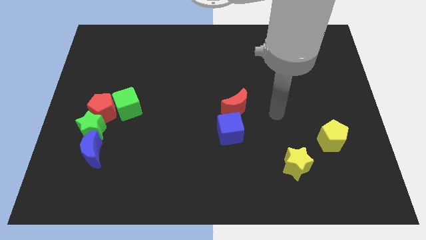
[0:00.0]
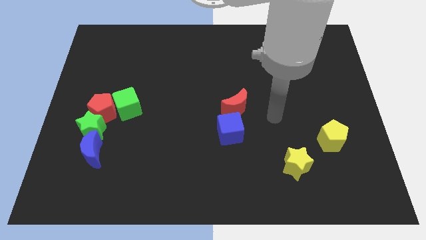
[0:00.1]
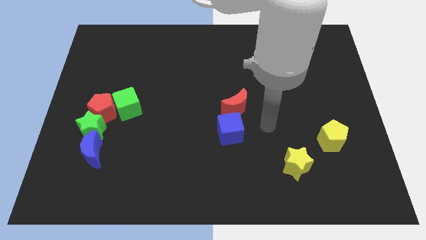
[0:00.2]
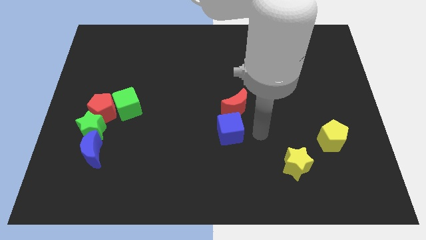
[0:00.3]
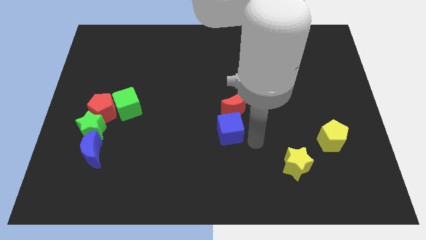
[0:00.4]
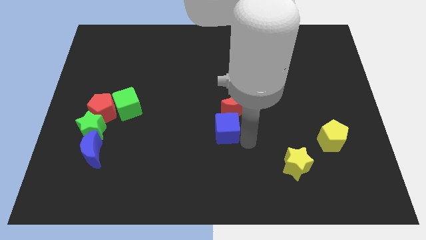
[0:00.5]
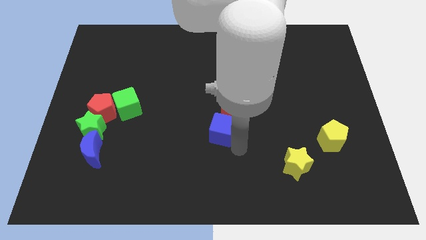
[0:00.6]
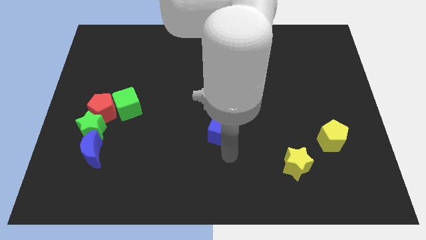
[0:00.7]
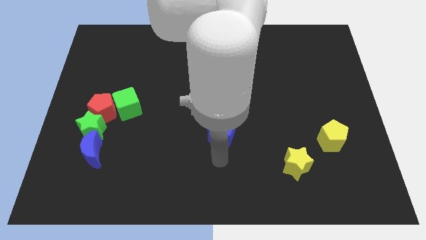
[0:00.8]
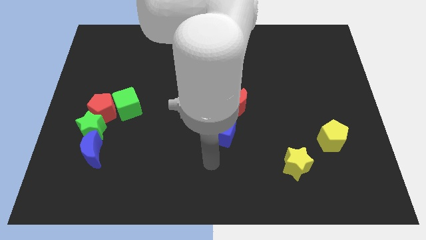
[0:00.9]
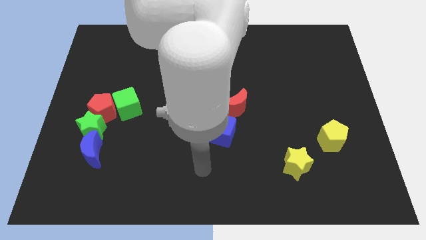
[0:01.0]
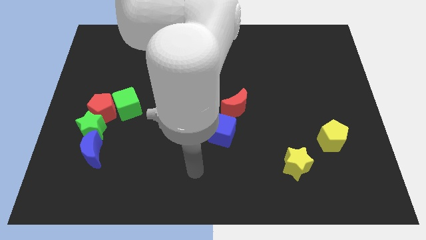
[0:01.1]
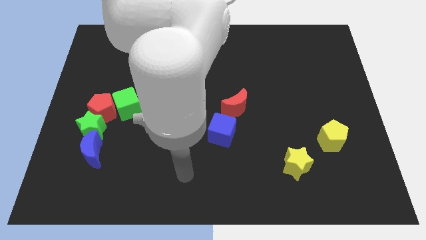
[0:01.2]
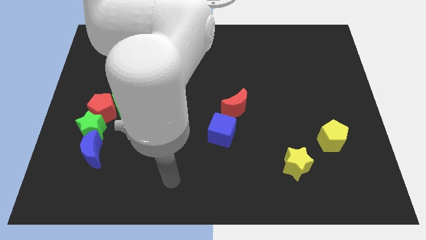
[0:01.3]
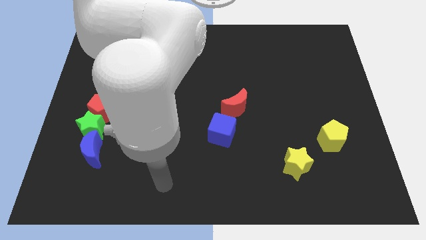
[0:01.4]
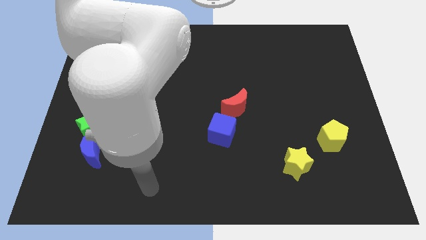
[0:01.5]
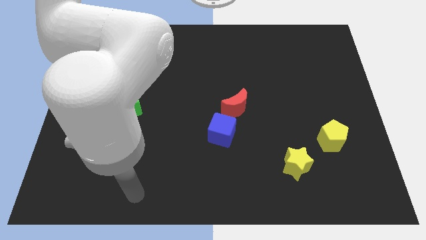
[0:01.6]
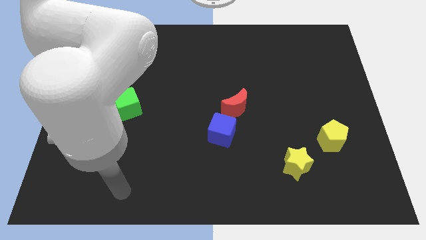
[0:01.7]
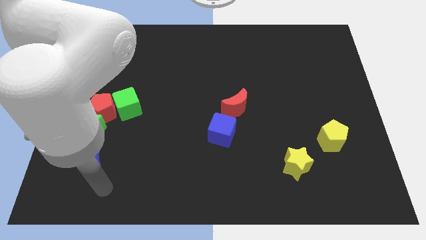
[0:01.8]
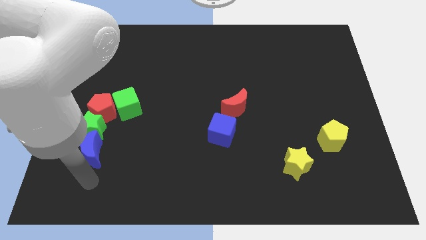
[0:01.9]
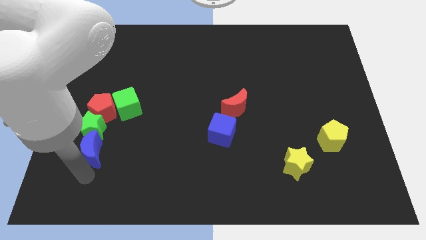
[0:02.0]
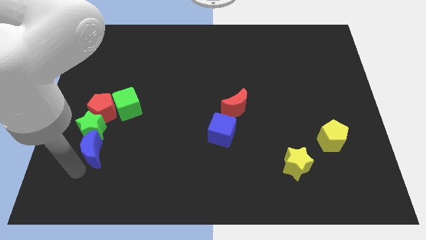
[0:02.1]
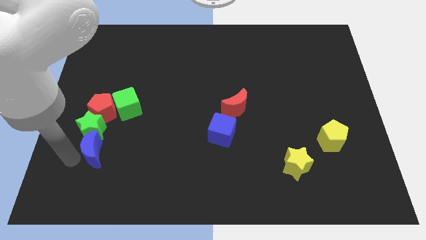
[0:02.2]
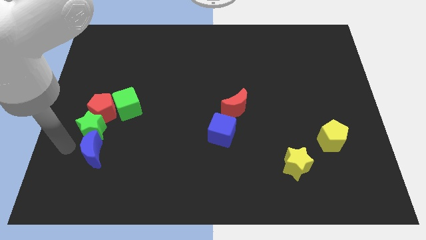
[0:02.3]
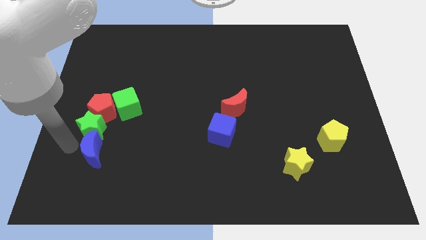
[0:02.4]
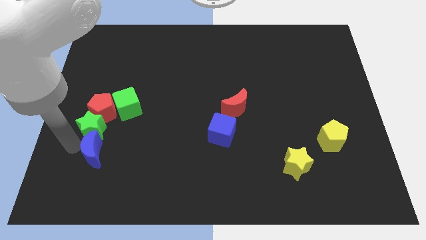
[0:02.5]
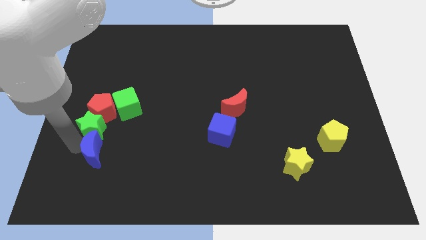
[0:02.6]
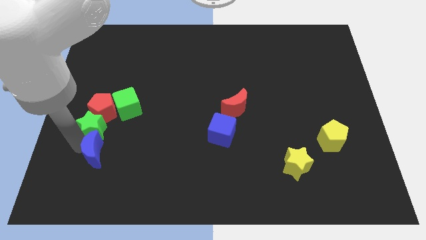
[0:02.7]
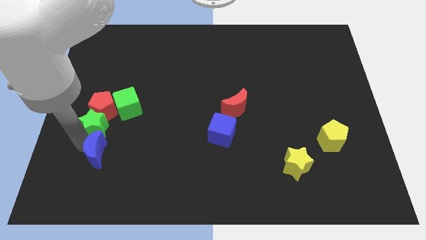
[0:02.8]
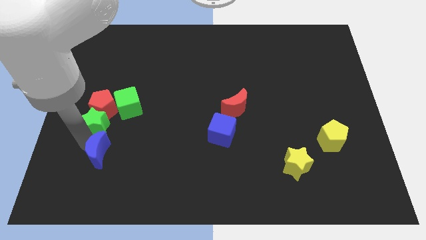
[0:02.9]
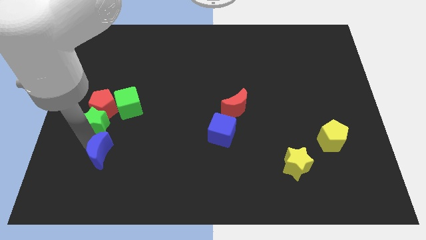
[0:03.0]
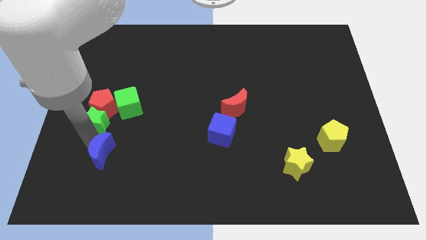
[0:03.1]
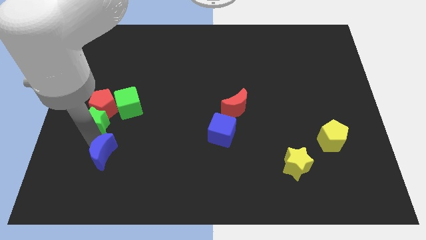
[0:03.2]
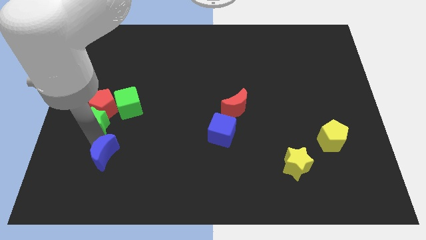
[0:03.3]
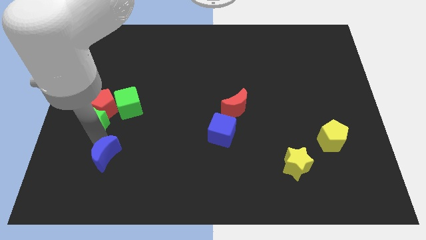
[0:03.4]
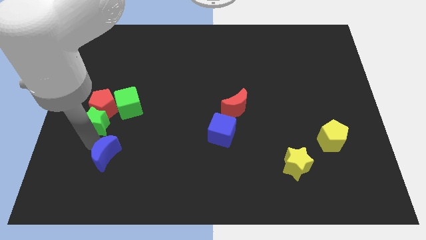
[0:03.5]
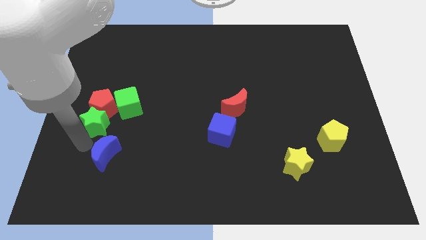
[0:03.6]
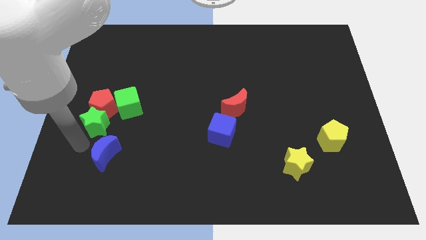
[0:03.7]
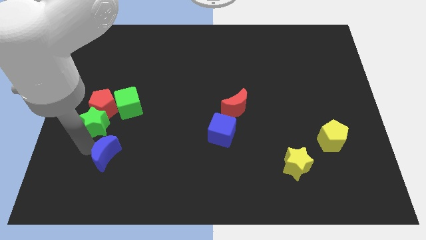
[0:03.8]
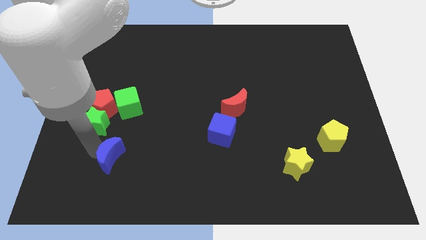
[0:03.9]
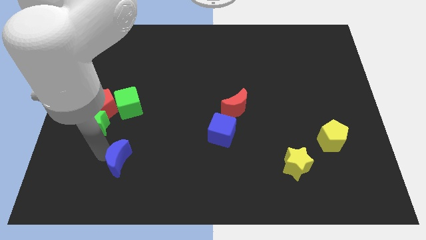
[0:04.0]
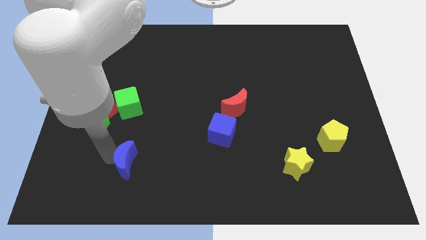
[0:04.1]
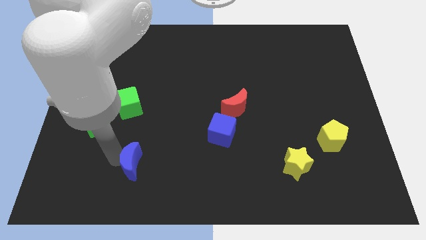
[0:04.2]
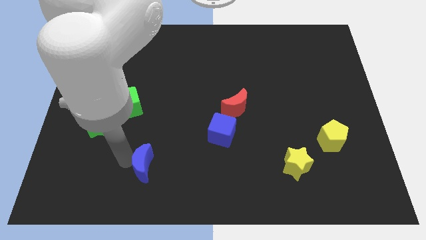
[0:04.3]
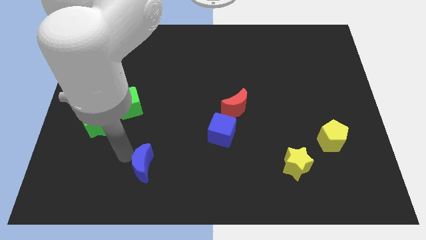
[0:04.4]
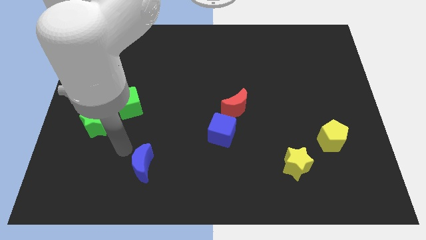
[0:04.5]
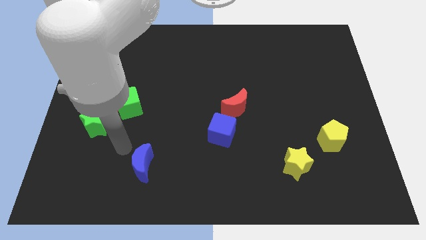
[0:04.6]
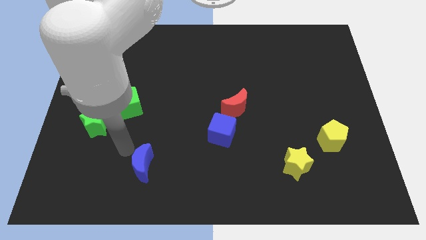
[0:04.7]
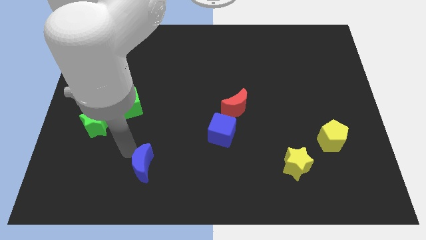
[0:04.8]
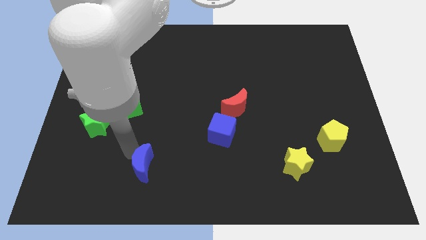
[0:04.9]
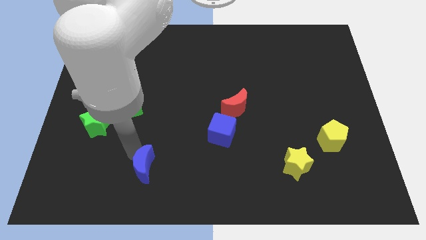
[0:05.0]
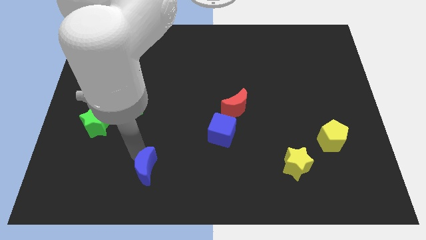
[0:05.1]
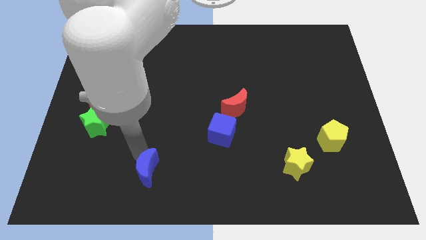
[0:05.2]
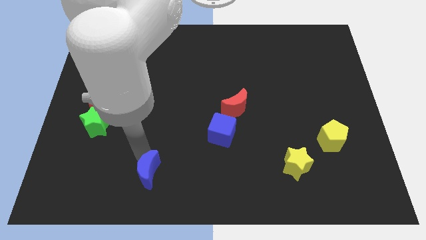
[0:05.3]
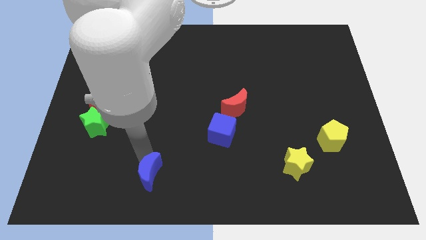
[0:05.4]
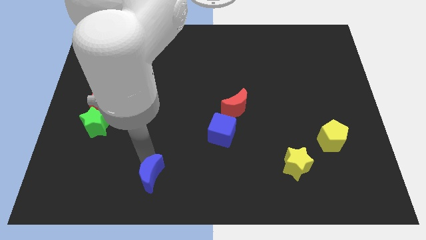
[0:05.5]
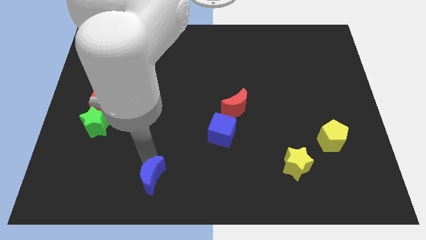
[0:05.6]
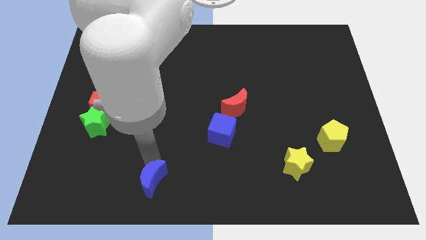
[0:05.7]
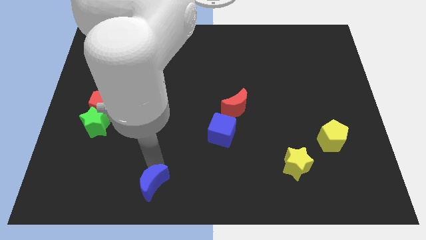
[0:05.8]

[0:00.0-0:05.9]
push the blue moon to the bottom side

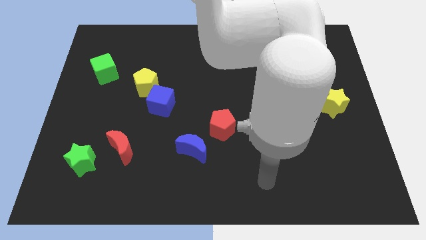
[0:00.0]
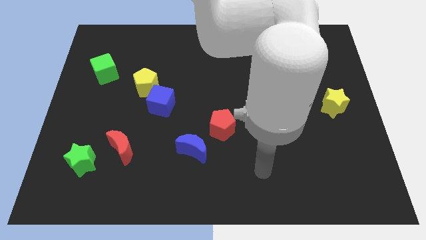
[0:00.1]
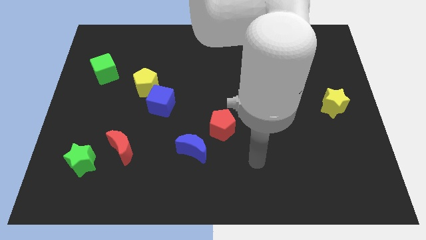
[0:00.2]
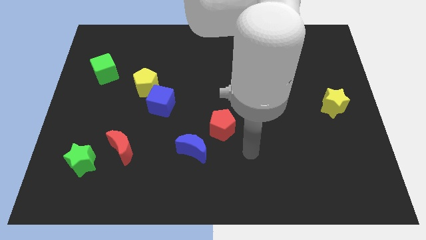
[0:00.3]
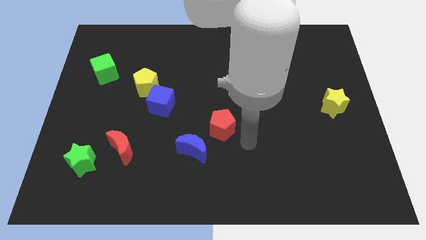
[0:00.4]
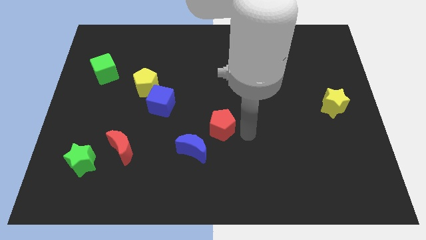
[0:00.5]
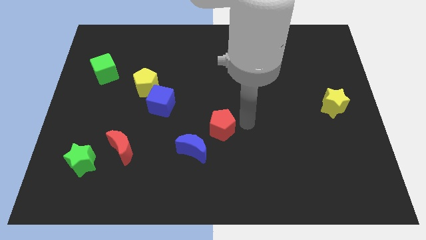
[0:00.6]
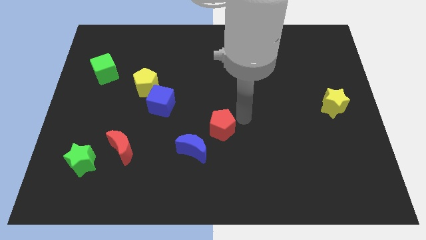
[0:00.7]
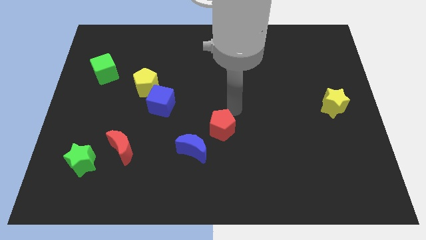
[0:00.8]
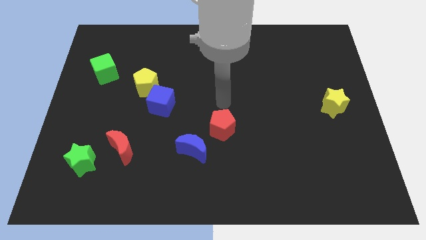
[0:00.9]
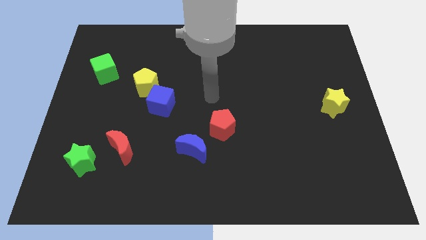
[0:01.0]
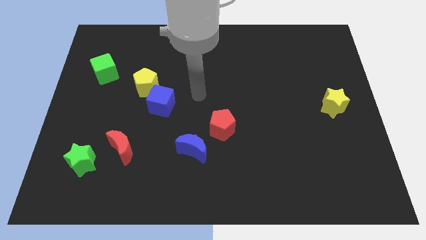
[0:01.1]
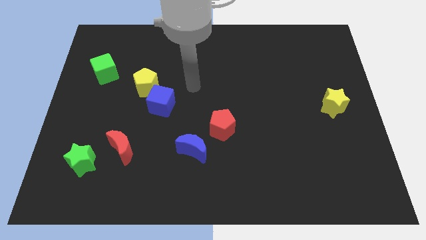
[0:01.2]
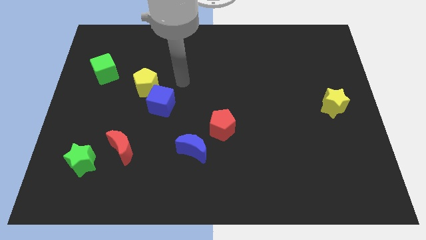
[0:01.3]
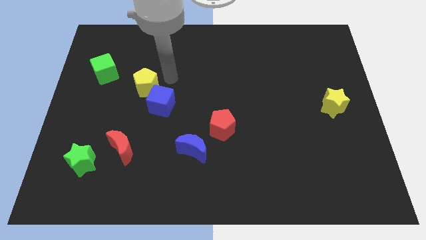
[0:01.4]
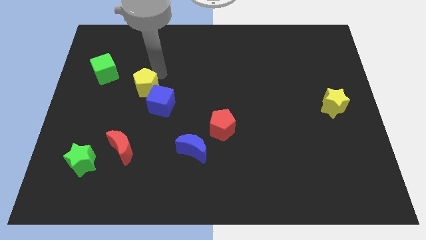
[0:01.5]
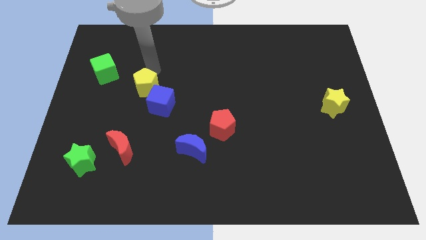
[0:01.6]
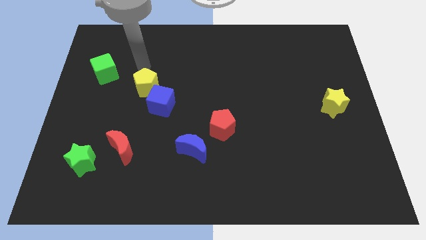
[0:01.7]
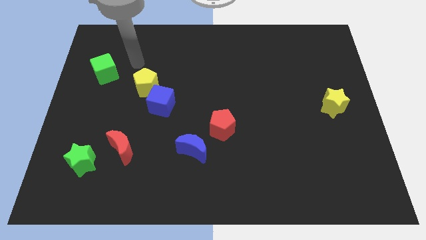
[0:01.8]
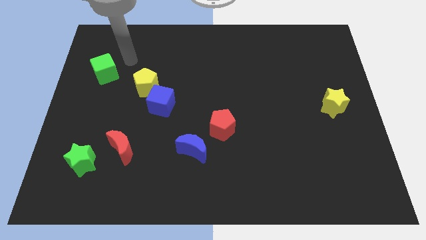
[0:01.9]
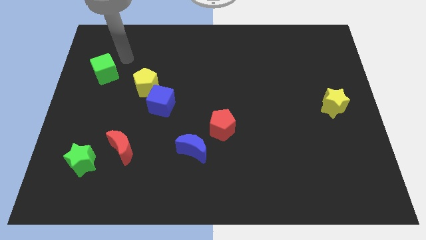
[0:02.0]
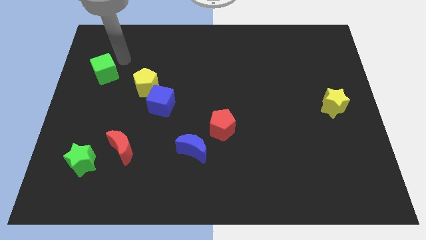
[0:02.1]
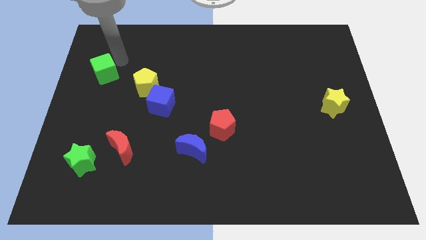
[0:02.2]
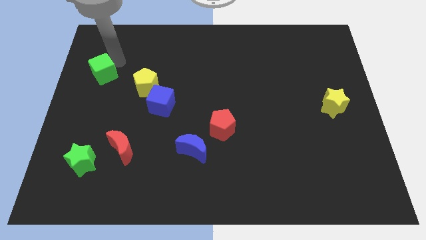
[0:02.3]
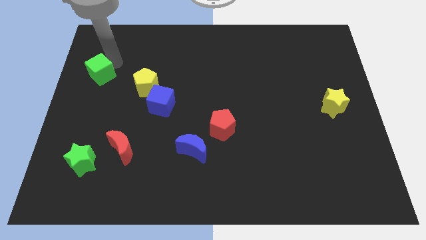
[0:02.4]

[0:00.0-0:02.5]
push the green cube to the center left
